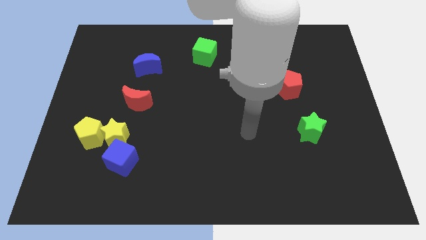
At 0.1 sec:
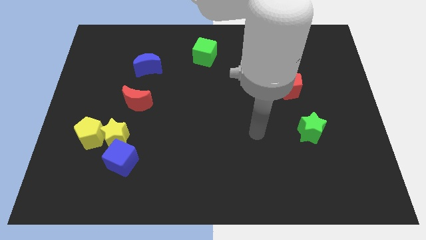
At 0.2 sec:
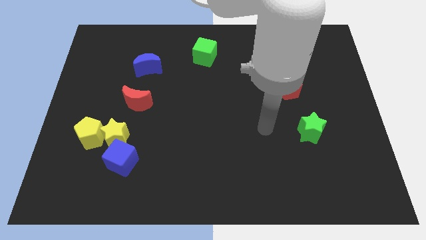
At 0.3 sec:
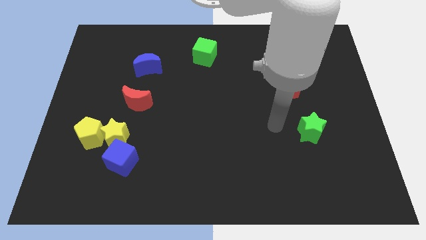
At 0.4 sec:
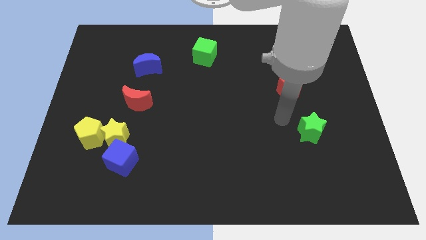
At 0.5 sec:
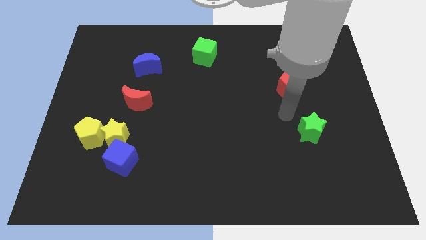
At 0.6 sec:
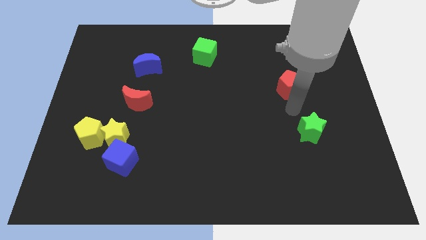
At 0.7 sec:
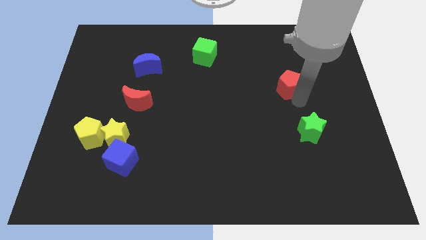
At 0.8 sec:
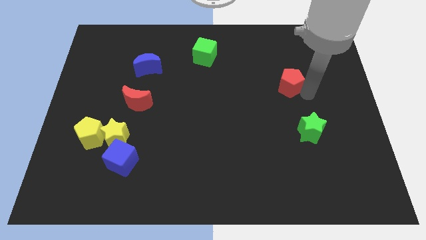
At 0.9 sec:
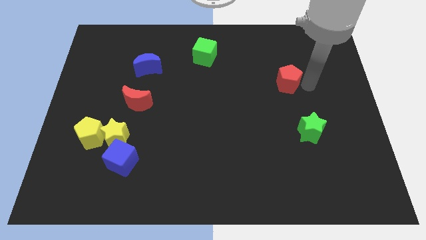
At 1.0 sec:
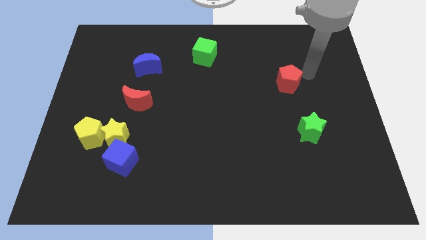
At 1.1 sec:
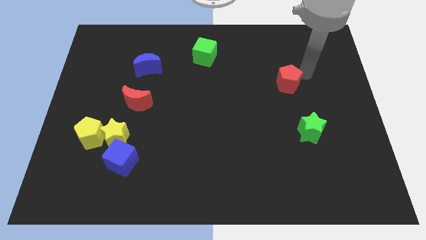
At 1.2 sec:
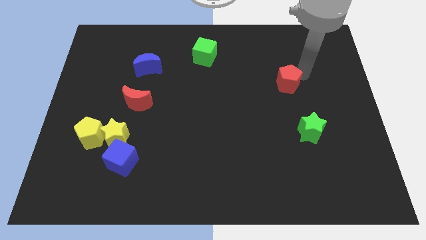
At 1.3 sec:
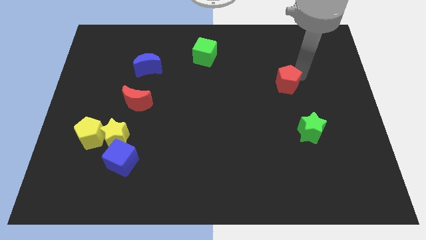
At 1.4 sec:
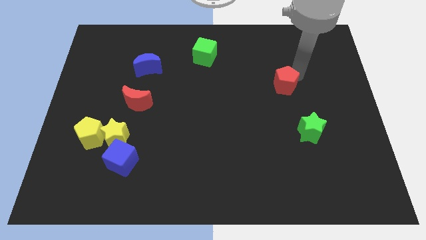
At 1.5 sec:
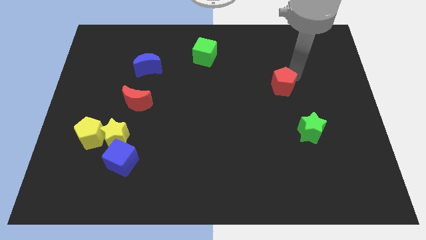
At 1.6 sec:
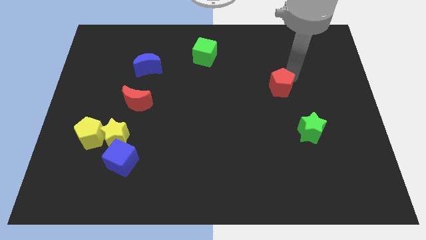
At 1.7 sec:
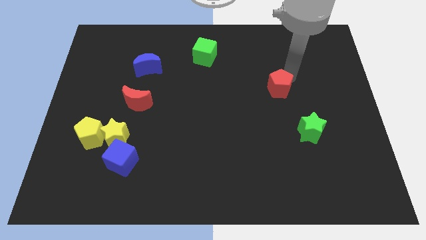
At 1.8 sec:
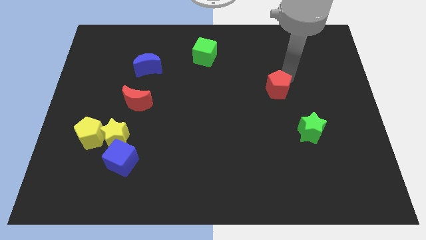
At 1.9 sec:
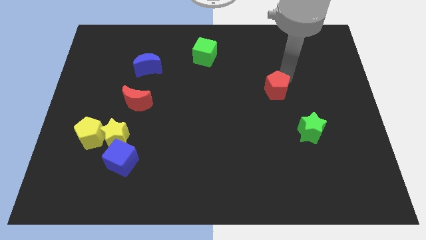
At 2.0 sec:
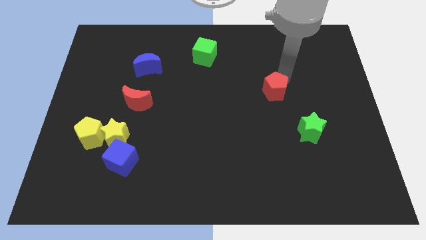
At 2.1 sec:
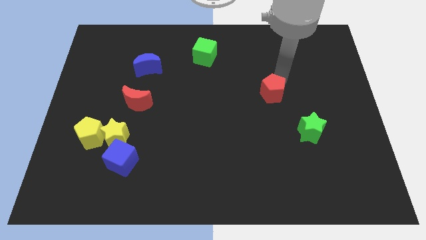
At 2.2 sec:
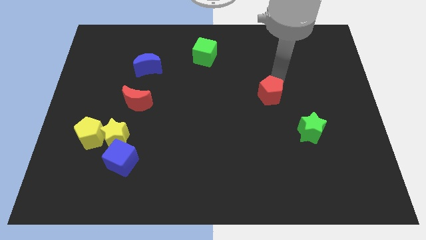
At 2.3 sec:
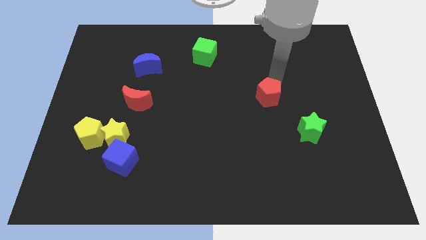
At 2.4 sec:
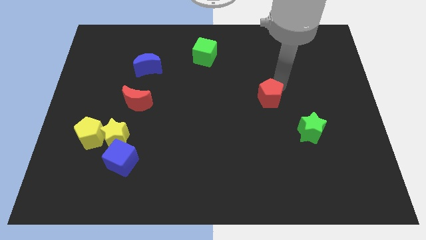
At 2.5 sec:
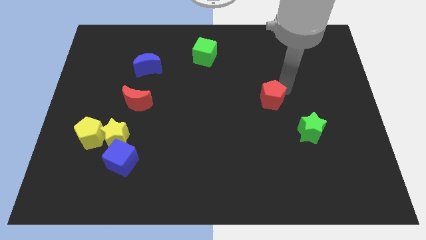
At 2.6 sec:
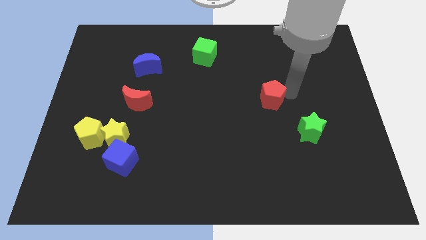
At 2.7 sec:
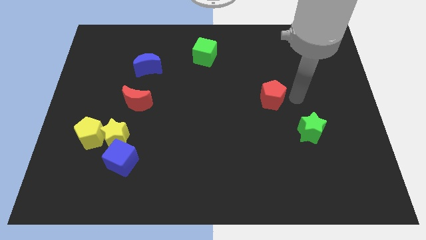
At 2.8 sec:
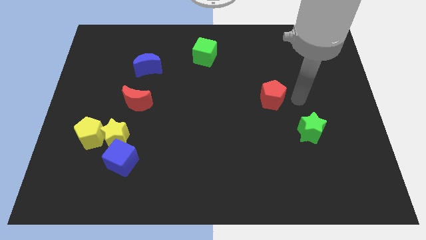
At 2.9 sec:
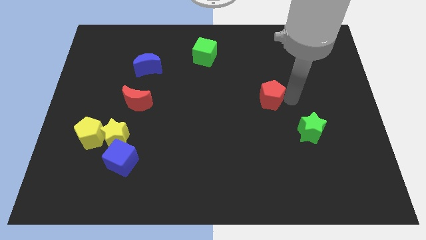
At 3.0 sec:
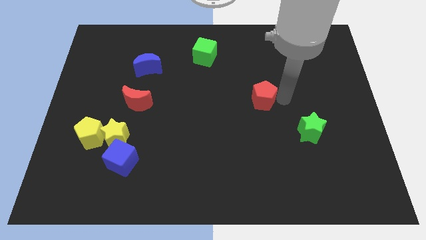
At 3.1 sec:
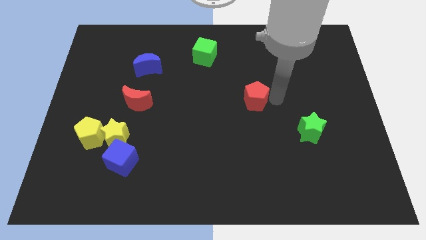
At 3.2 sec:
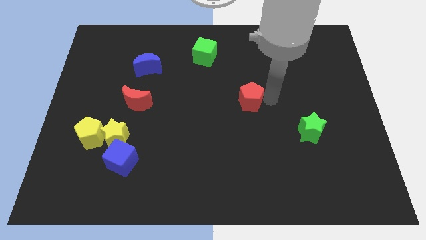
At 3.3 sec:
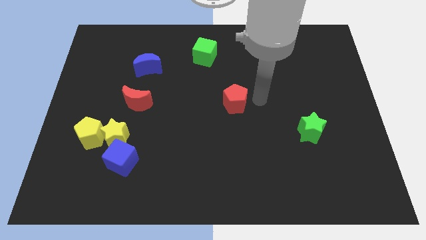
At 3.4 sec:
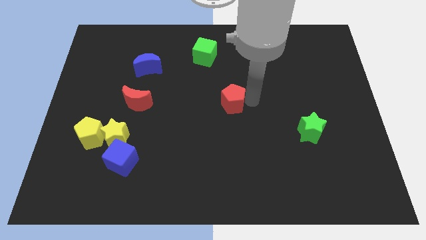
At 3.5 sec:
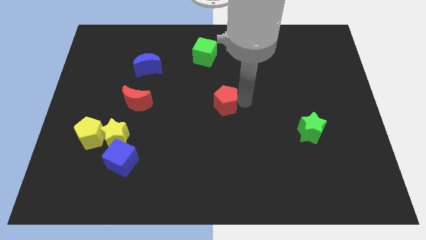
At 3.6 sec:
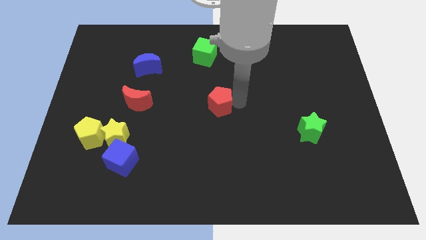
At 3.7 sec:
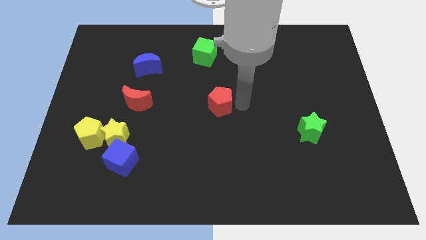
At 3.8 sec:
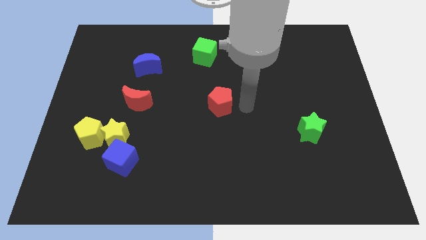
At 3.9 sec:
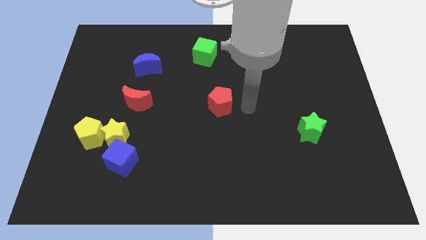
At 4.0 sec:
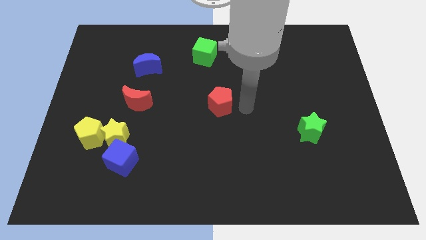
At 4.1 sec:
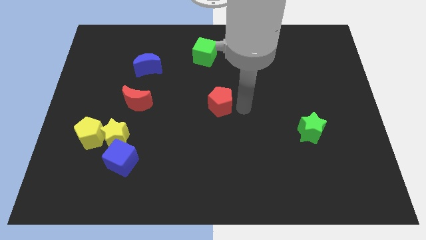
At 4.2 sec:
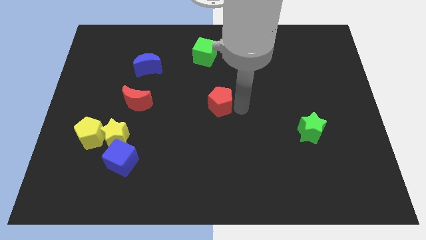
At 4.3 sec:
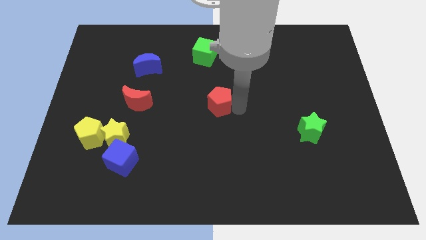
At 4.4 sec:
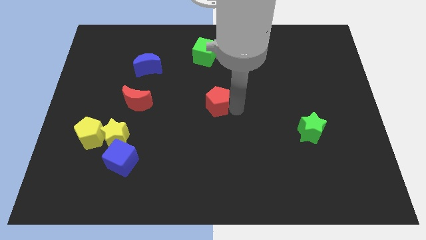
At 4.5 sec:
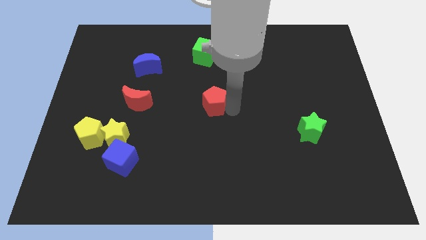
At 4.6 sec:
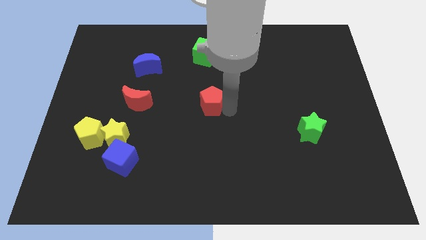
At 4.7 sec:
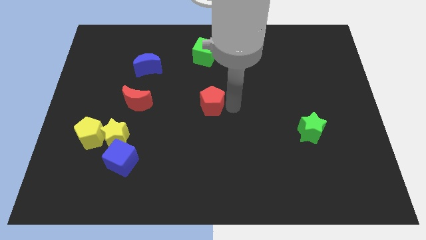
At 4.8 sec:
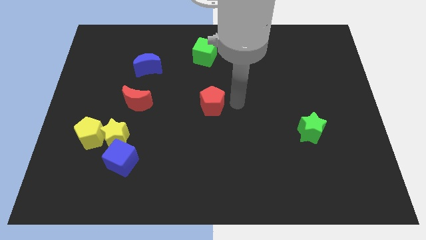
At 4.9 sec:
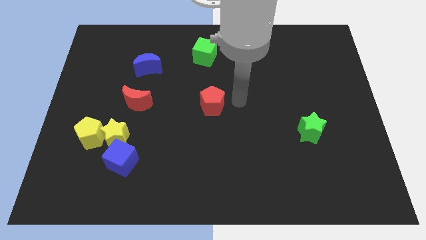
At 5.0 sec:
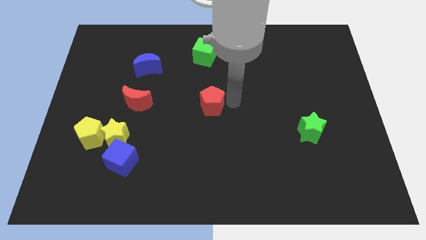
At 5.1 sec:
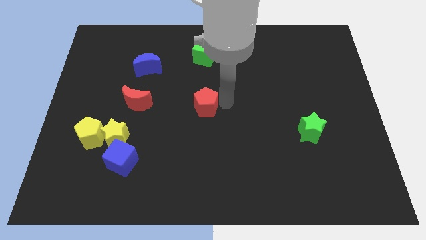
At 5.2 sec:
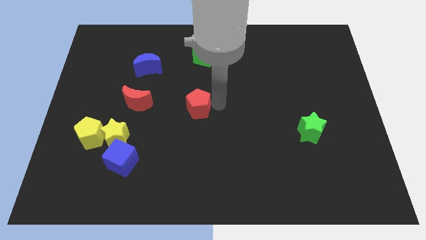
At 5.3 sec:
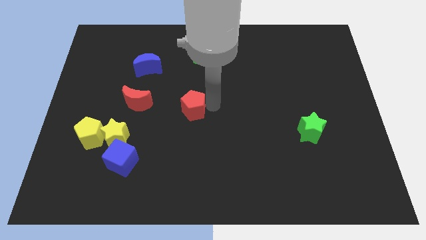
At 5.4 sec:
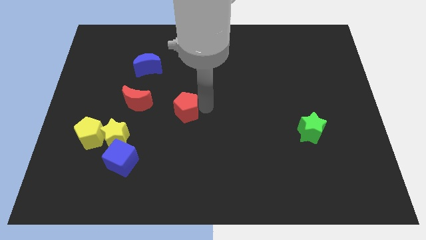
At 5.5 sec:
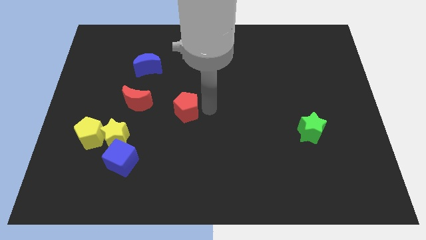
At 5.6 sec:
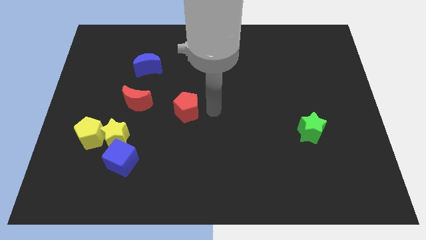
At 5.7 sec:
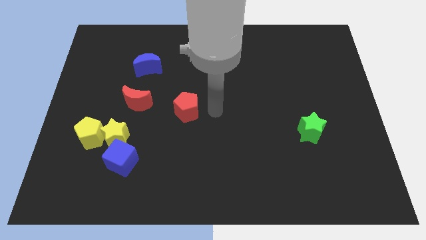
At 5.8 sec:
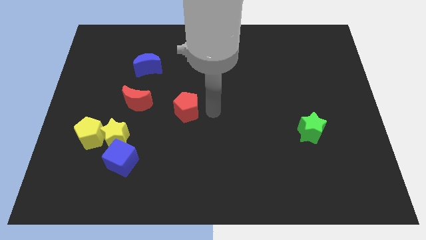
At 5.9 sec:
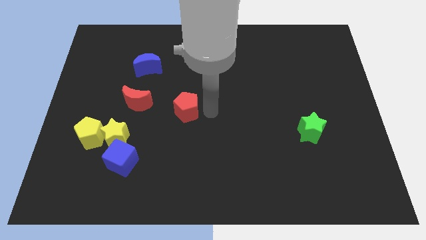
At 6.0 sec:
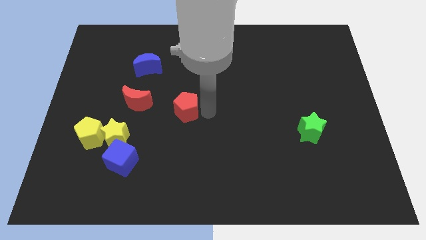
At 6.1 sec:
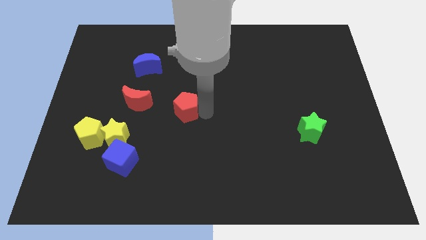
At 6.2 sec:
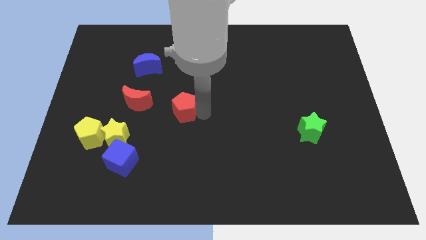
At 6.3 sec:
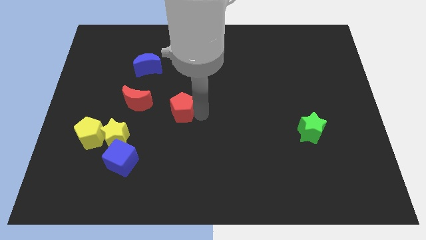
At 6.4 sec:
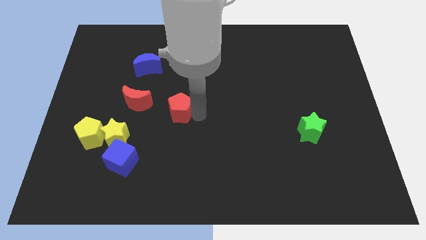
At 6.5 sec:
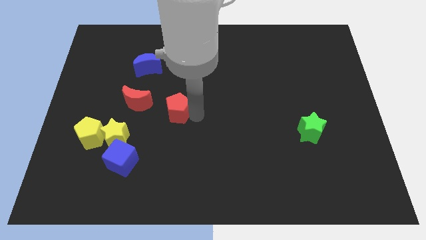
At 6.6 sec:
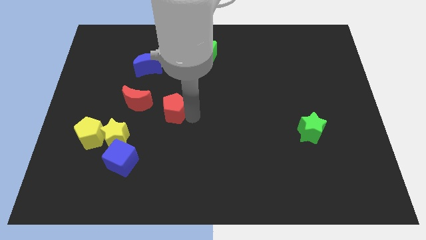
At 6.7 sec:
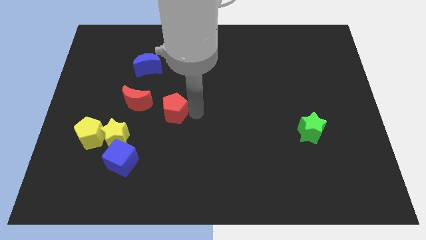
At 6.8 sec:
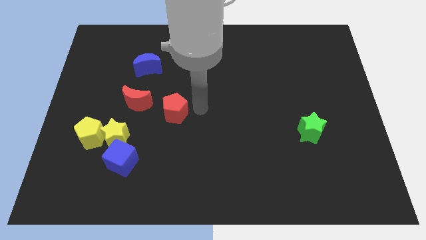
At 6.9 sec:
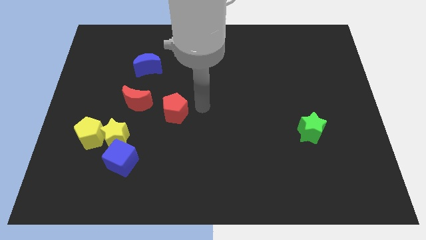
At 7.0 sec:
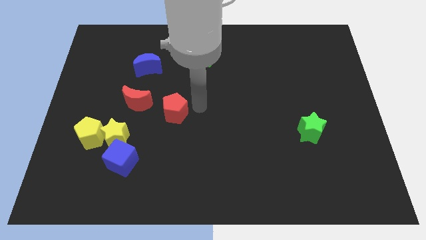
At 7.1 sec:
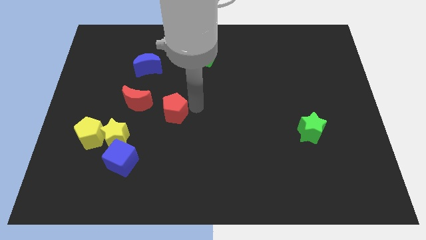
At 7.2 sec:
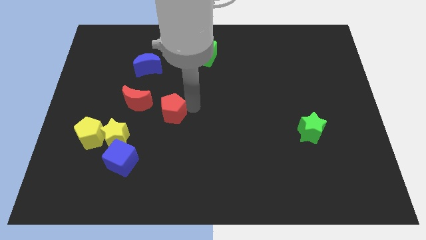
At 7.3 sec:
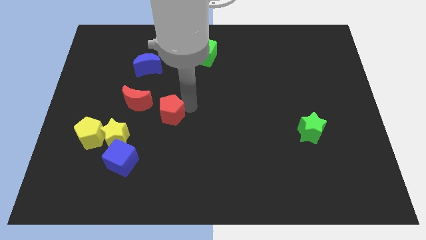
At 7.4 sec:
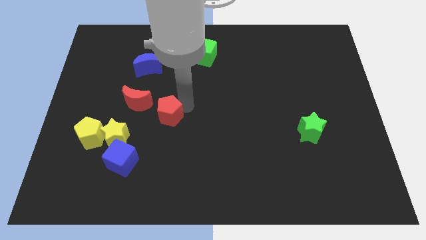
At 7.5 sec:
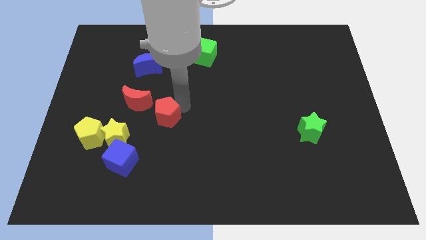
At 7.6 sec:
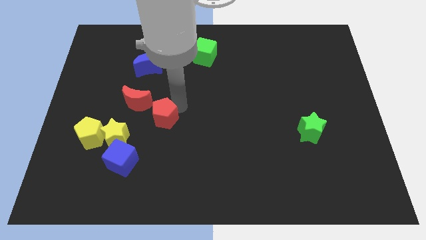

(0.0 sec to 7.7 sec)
put the red pentagon diagonally up and to the right of the yellow star
